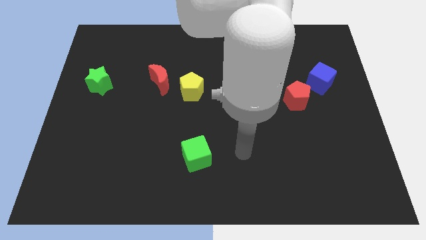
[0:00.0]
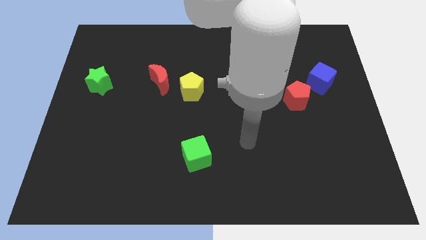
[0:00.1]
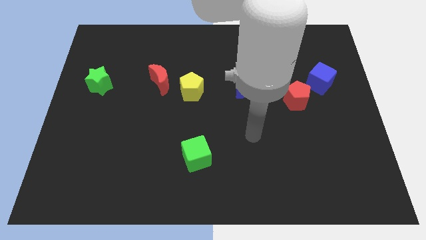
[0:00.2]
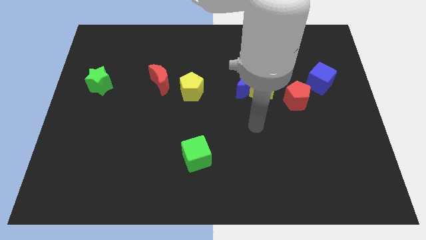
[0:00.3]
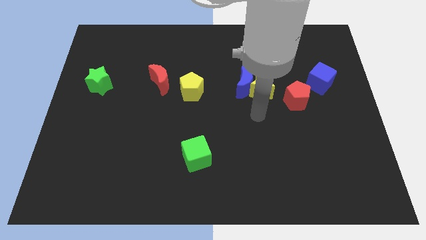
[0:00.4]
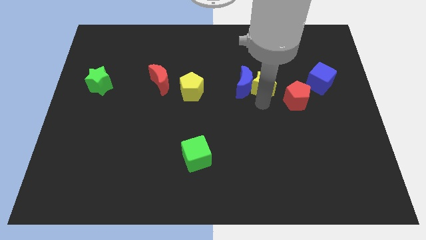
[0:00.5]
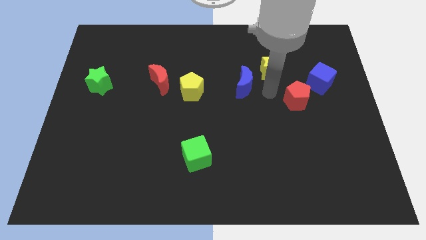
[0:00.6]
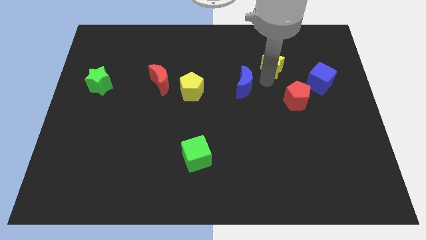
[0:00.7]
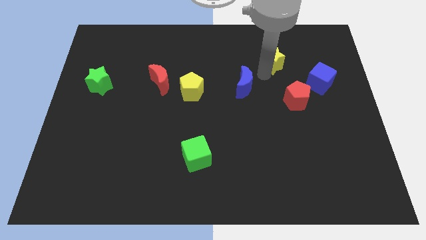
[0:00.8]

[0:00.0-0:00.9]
separate the blue moon from the yellow star

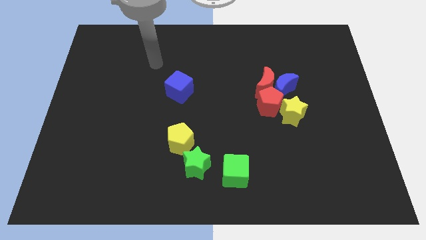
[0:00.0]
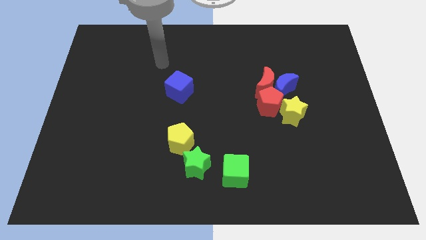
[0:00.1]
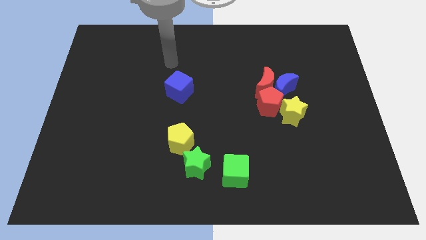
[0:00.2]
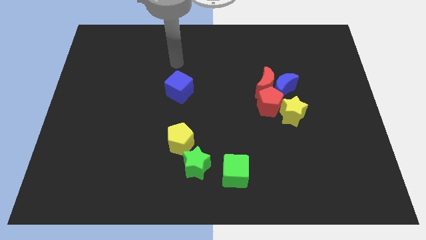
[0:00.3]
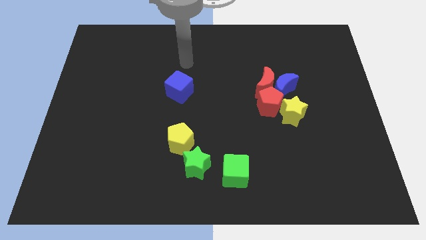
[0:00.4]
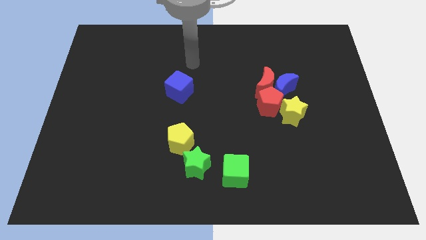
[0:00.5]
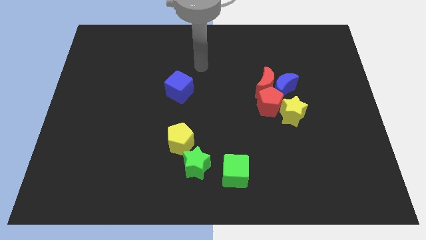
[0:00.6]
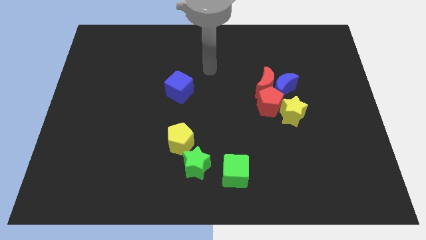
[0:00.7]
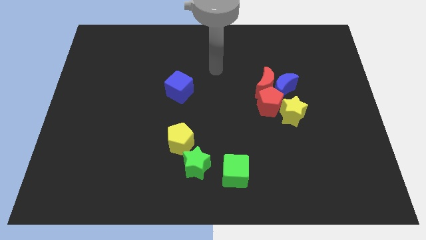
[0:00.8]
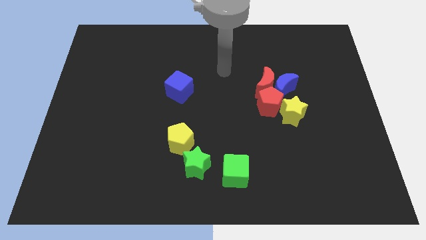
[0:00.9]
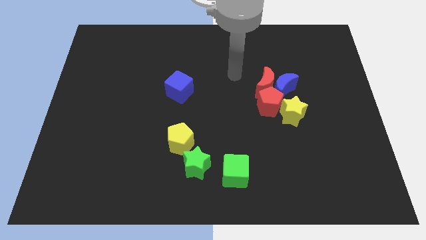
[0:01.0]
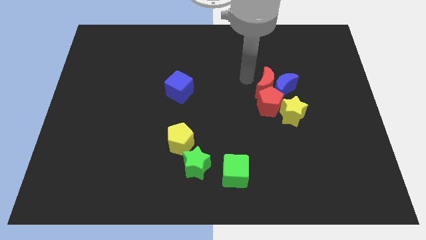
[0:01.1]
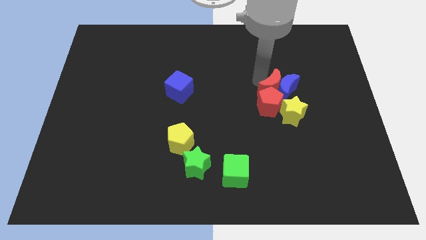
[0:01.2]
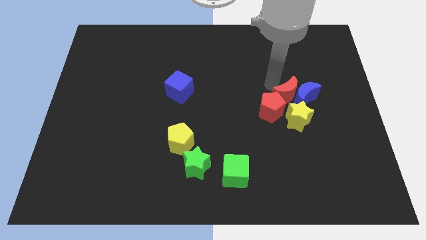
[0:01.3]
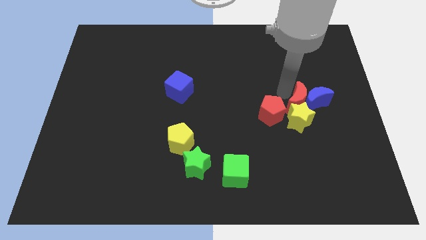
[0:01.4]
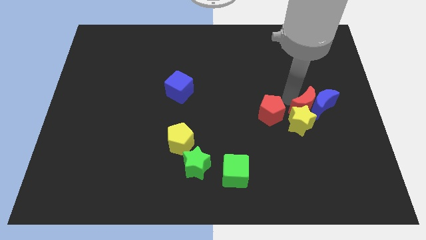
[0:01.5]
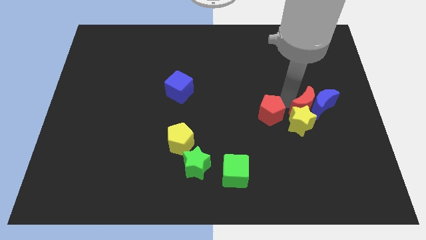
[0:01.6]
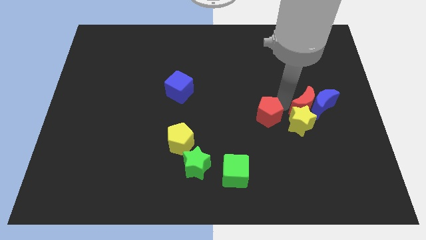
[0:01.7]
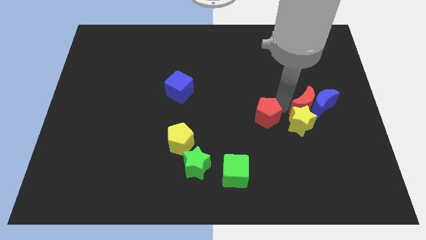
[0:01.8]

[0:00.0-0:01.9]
separate the red pentagon from the yellow star, red moon, and blue moon

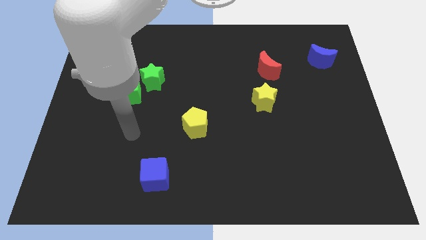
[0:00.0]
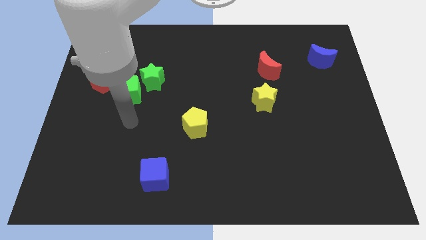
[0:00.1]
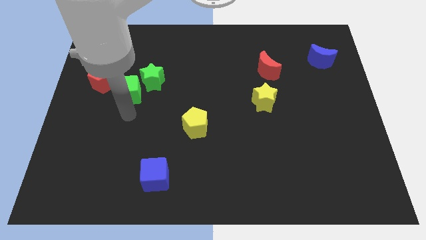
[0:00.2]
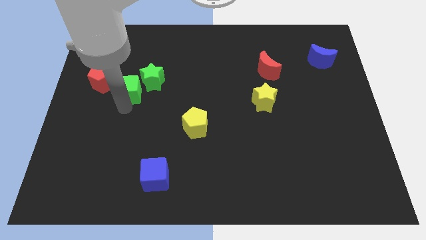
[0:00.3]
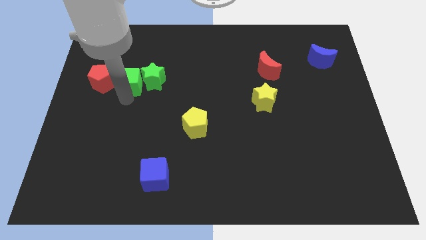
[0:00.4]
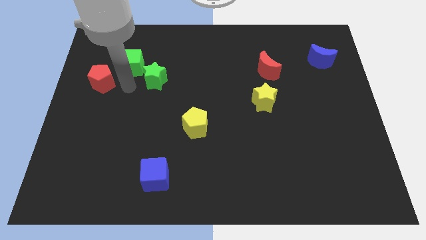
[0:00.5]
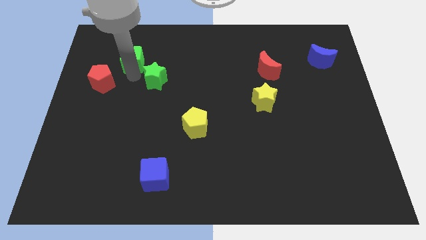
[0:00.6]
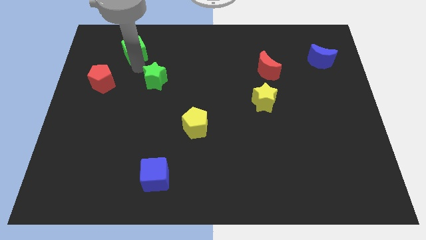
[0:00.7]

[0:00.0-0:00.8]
pull the green star apart from the green cube

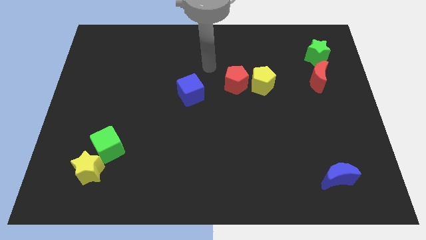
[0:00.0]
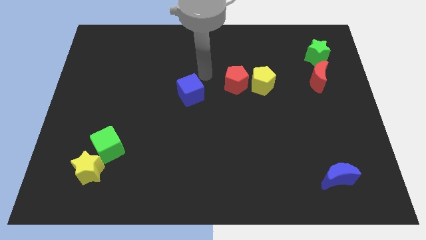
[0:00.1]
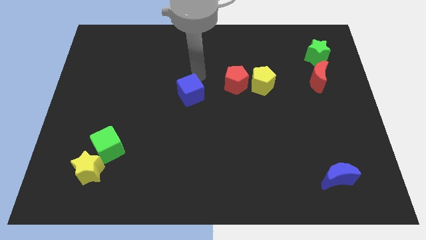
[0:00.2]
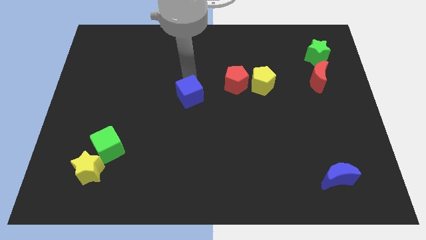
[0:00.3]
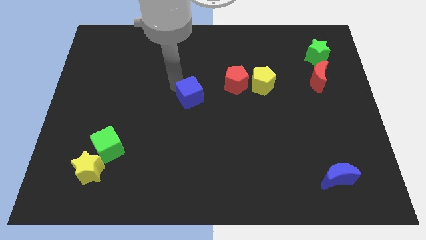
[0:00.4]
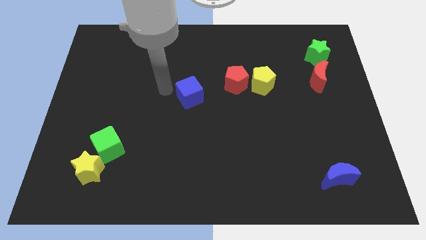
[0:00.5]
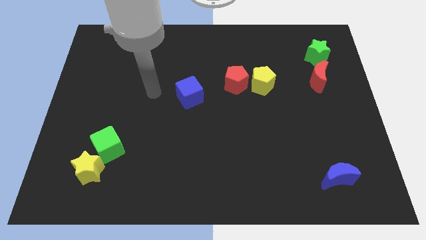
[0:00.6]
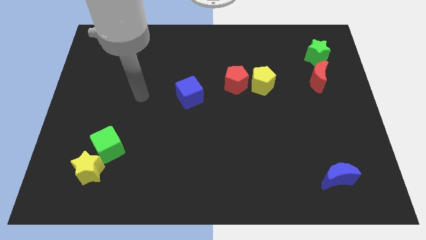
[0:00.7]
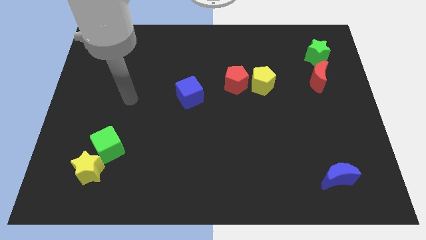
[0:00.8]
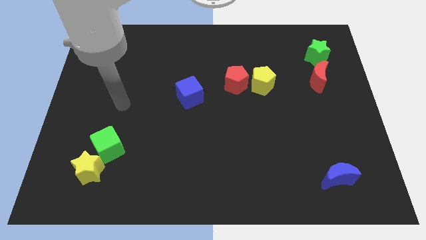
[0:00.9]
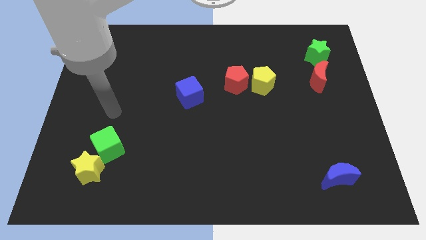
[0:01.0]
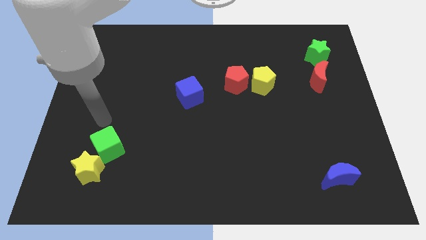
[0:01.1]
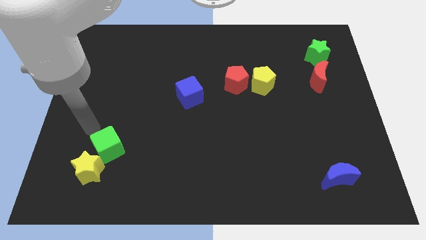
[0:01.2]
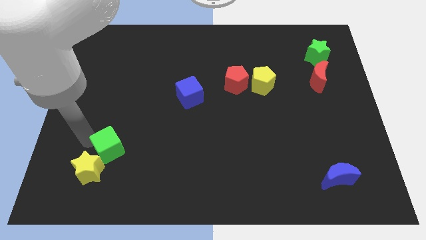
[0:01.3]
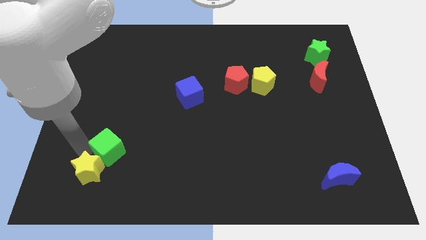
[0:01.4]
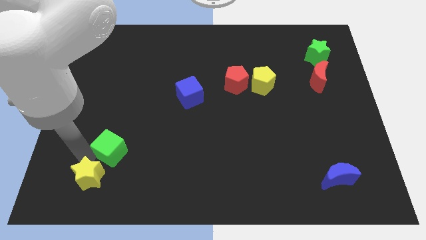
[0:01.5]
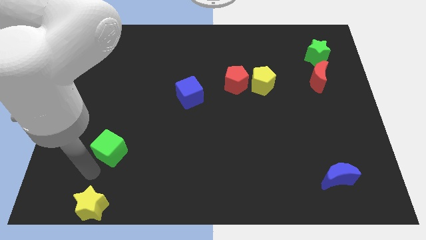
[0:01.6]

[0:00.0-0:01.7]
separate the green cube from the yellow star

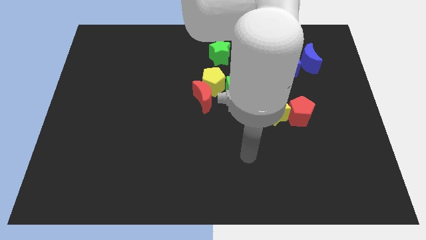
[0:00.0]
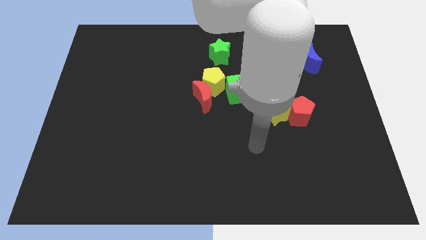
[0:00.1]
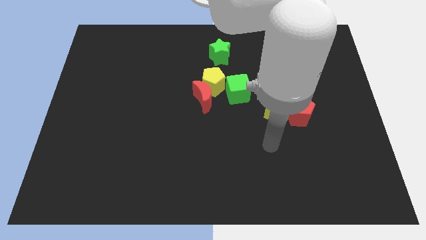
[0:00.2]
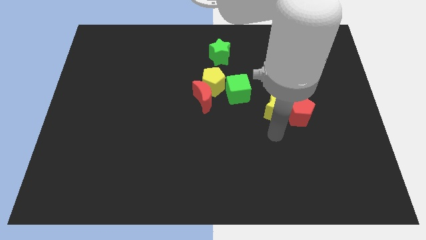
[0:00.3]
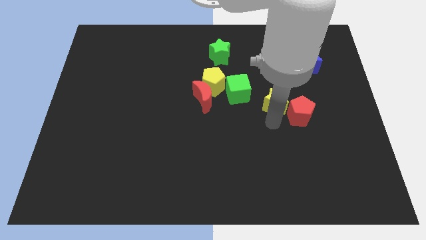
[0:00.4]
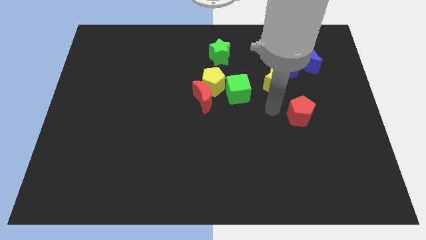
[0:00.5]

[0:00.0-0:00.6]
move the red pentagon away from the yellow star

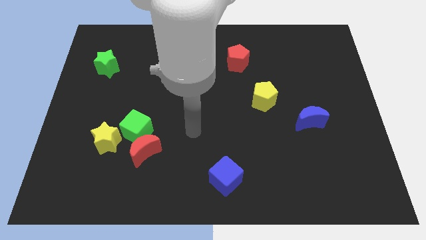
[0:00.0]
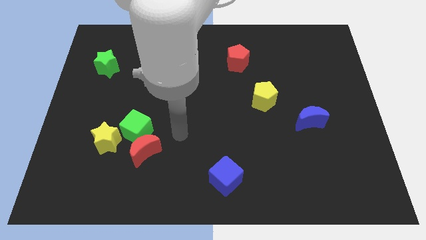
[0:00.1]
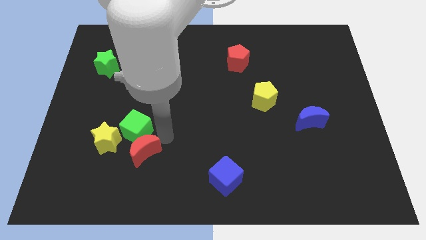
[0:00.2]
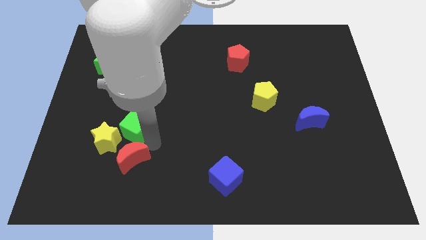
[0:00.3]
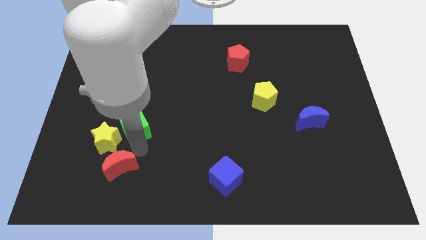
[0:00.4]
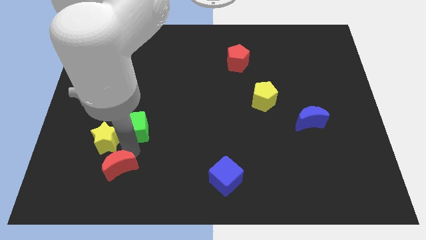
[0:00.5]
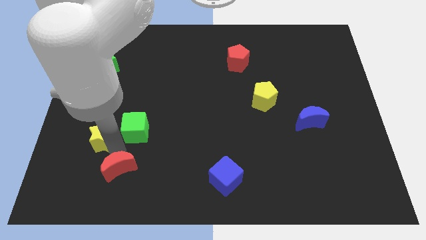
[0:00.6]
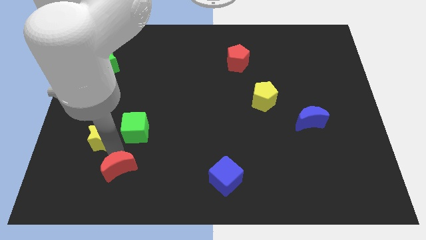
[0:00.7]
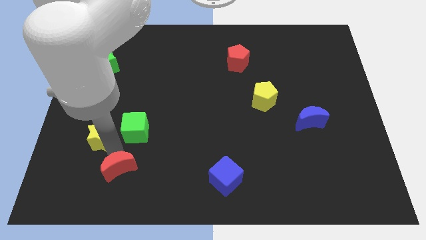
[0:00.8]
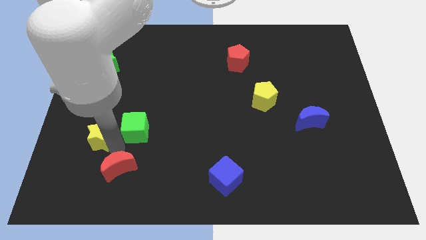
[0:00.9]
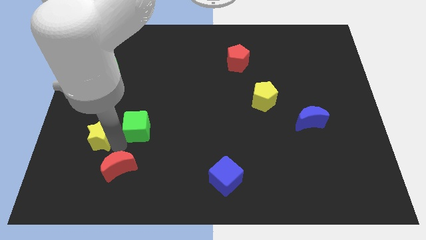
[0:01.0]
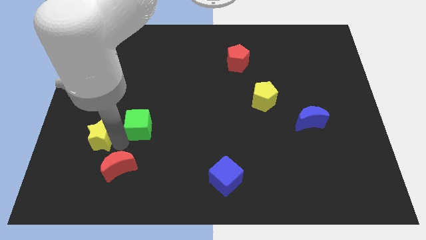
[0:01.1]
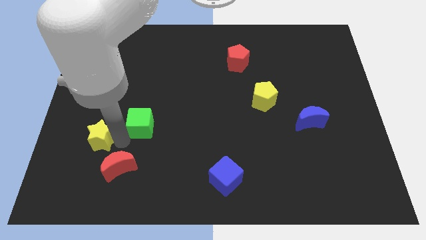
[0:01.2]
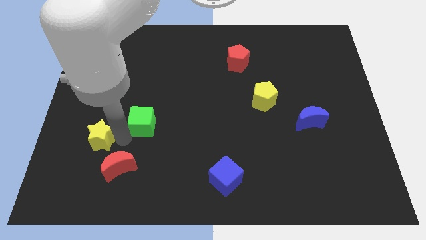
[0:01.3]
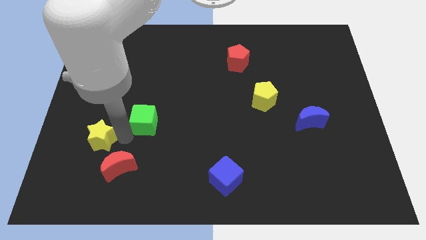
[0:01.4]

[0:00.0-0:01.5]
separate the green cube from the red moon and yellow star

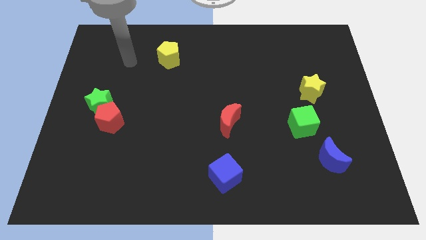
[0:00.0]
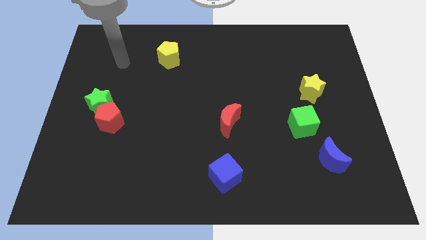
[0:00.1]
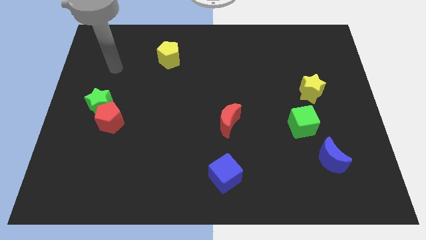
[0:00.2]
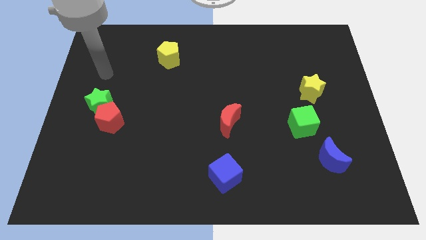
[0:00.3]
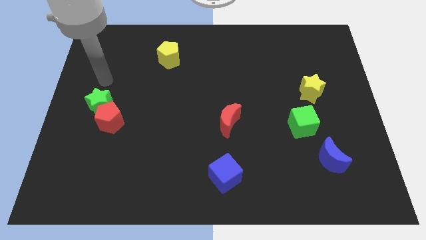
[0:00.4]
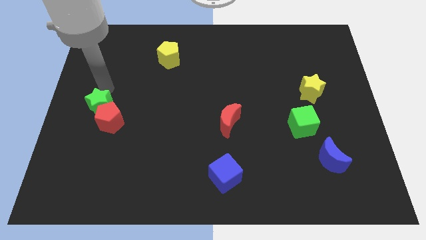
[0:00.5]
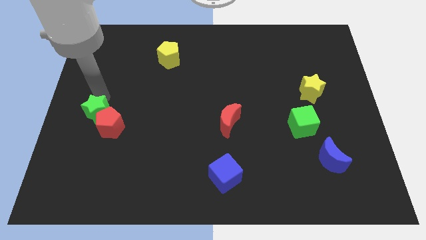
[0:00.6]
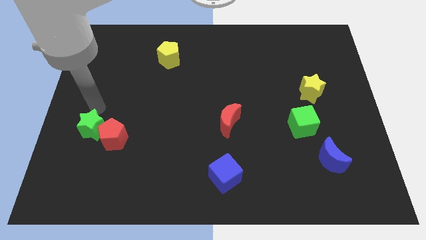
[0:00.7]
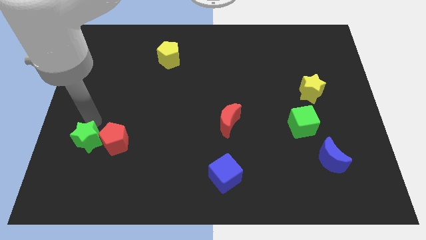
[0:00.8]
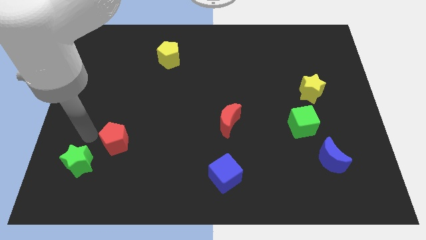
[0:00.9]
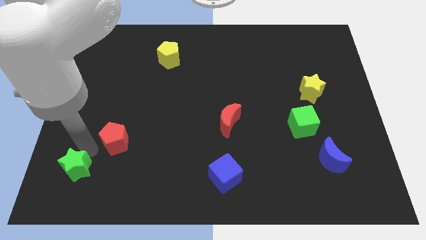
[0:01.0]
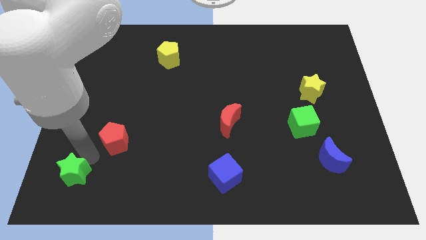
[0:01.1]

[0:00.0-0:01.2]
pull the red pentagon apart from the green star

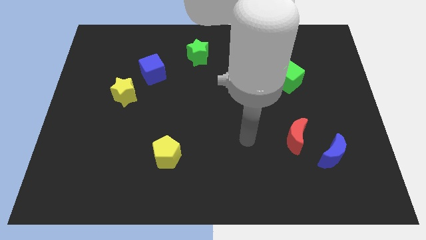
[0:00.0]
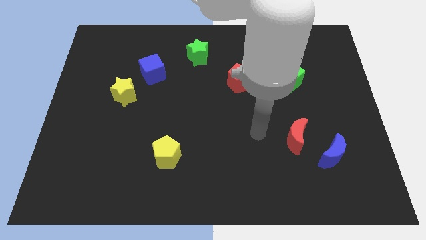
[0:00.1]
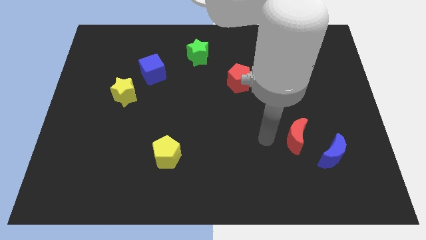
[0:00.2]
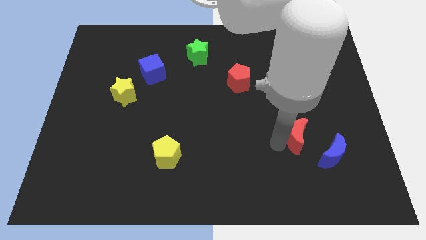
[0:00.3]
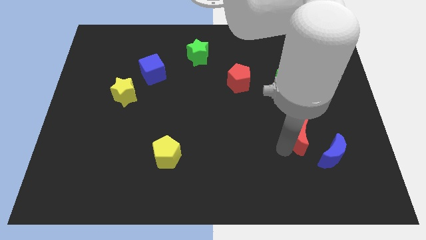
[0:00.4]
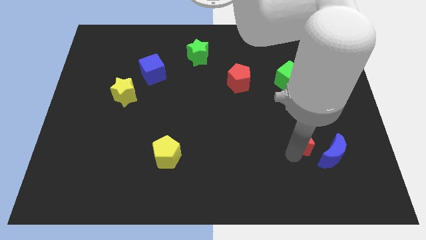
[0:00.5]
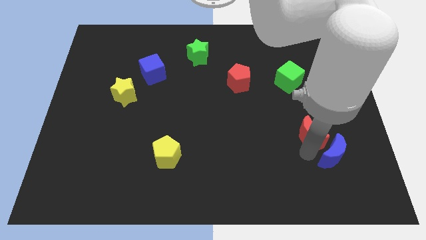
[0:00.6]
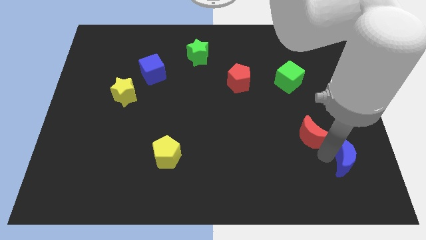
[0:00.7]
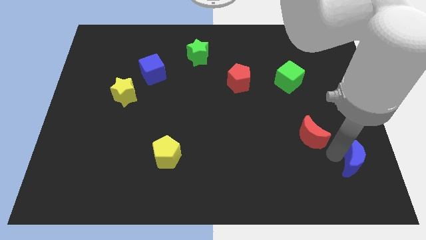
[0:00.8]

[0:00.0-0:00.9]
pull the red moon apart from the blue moon
